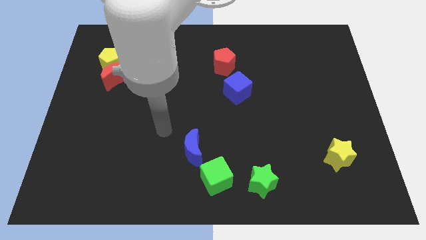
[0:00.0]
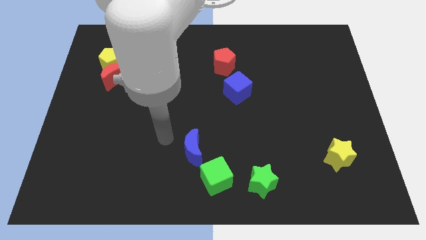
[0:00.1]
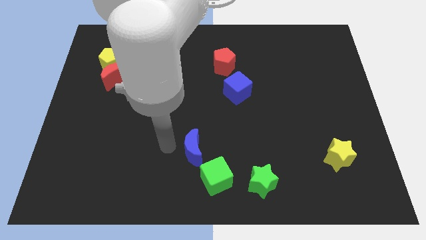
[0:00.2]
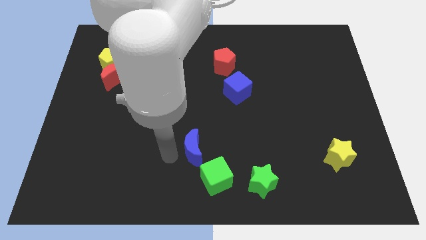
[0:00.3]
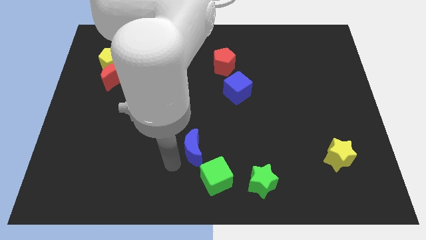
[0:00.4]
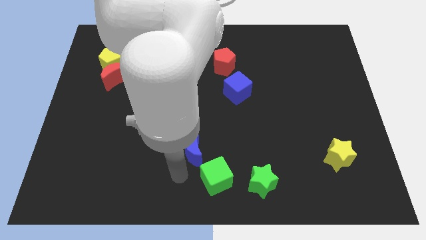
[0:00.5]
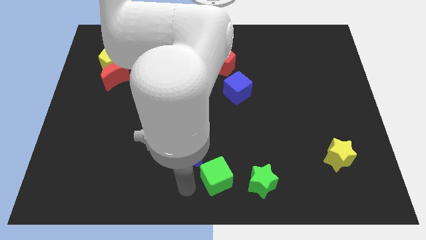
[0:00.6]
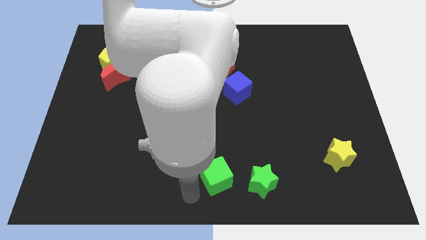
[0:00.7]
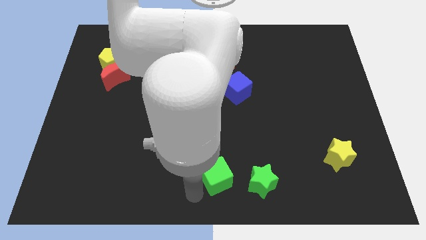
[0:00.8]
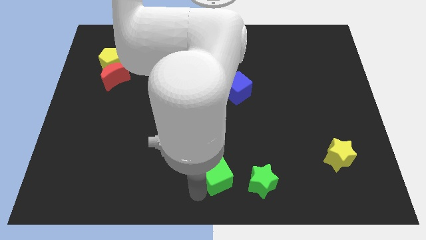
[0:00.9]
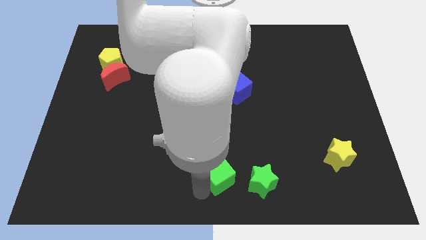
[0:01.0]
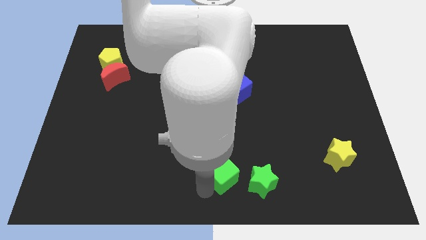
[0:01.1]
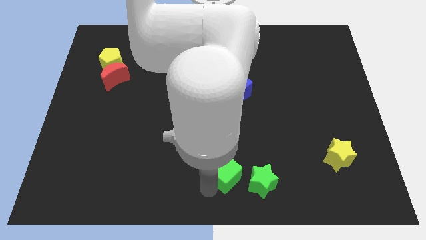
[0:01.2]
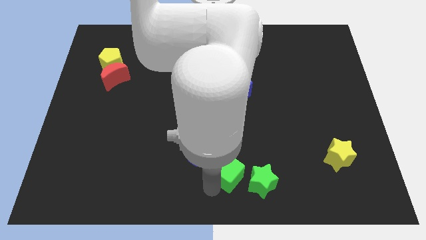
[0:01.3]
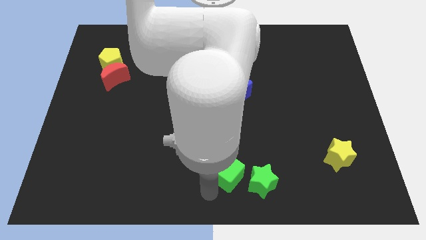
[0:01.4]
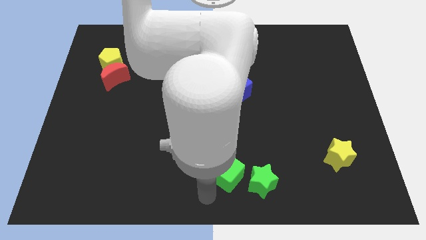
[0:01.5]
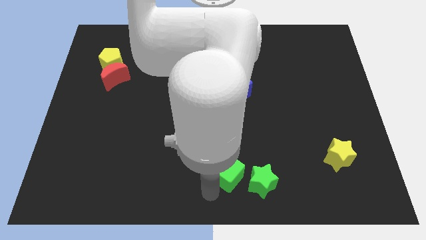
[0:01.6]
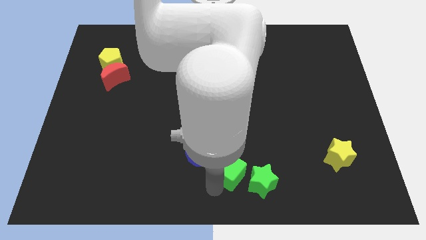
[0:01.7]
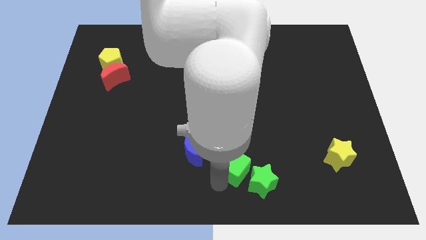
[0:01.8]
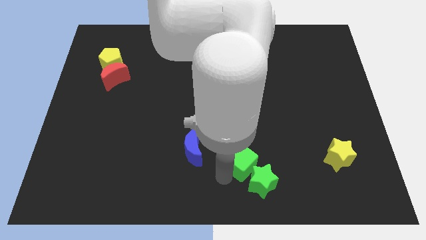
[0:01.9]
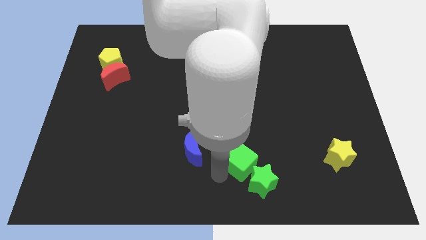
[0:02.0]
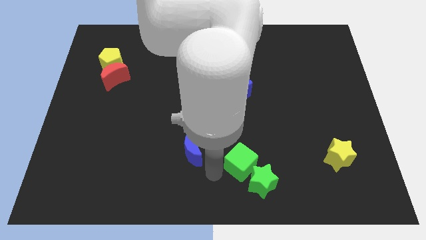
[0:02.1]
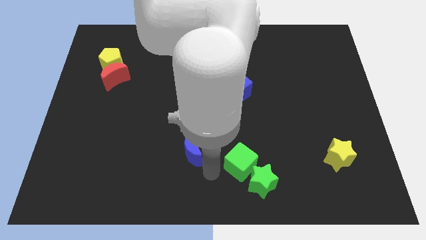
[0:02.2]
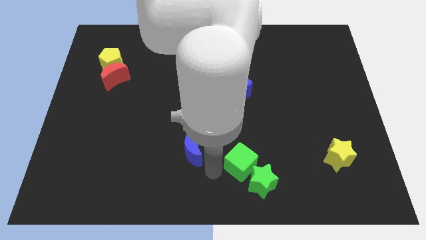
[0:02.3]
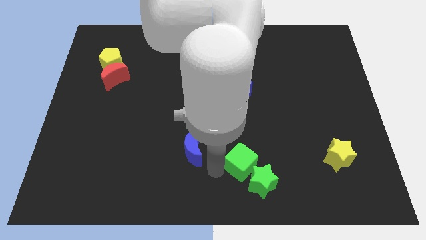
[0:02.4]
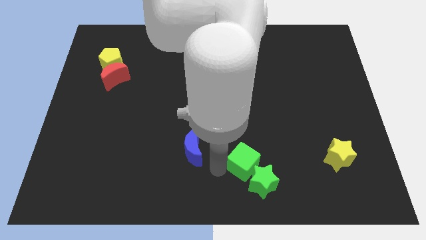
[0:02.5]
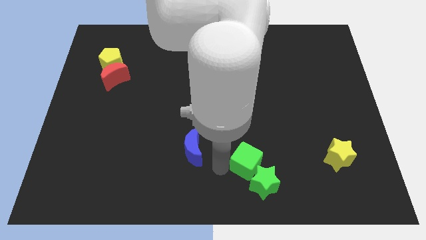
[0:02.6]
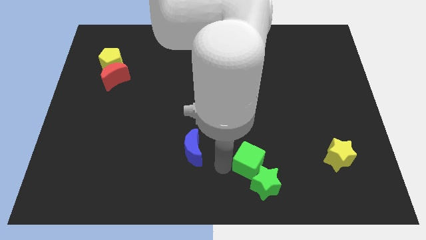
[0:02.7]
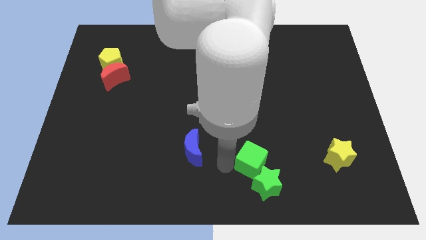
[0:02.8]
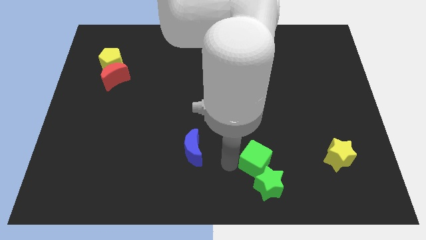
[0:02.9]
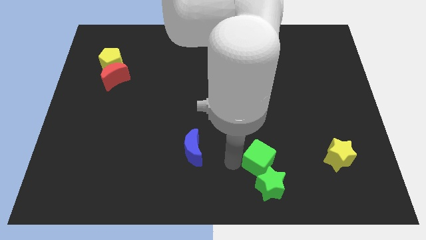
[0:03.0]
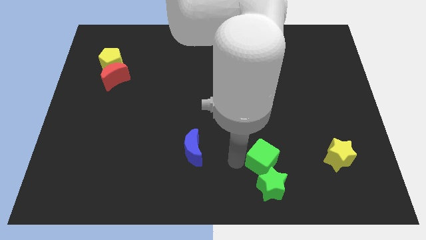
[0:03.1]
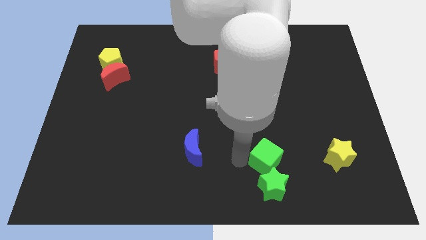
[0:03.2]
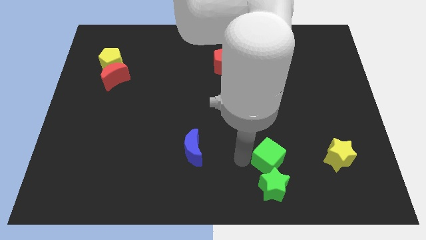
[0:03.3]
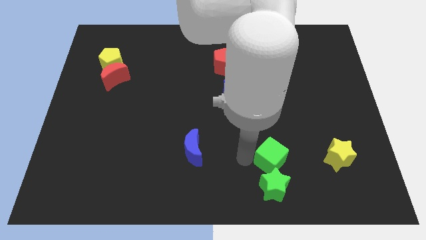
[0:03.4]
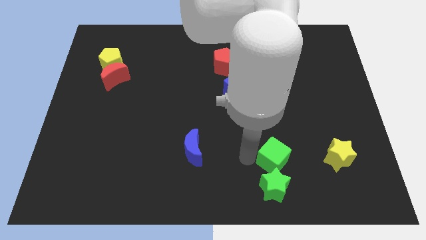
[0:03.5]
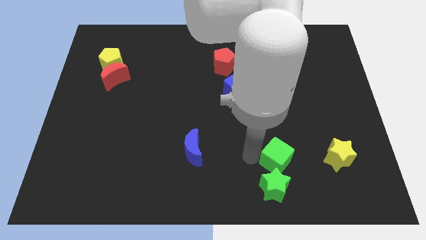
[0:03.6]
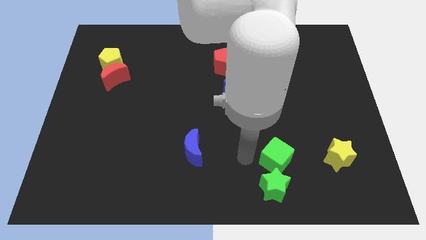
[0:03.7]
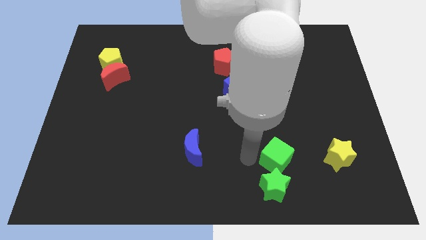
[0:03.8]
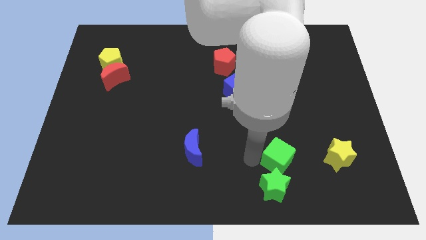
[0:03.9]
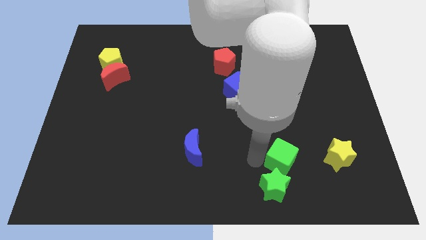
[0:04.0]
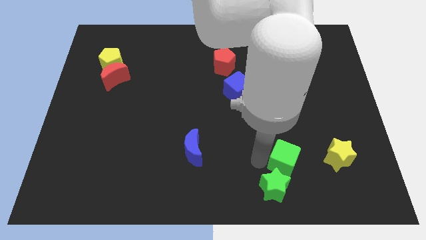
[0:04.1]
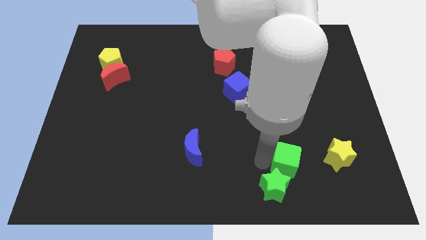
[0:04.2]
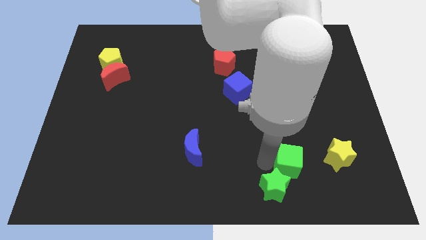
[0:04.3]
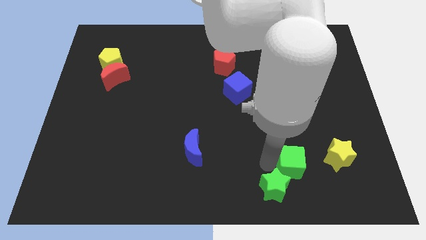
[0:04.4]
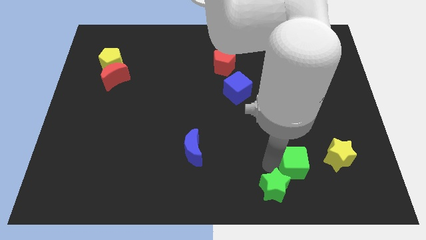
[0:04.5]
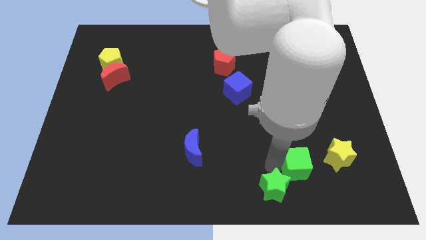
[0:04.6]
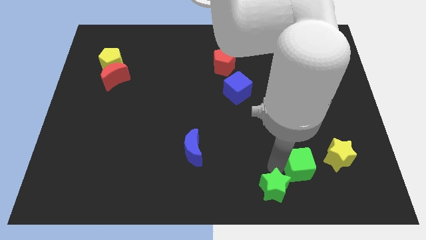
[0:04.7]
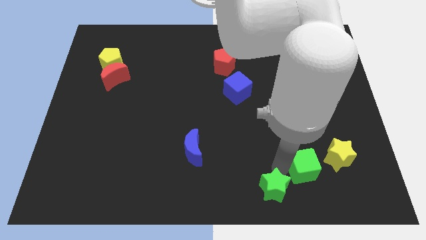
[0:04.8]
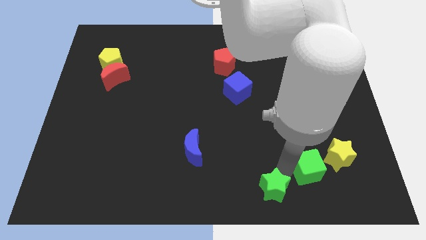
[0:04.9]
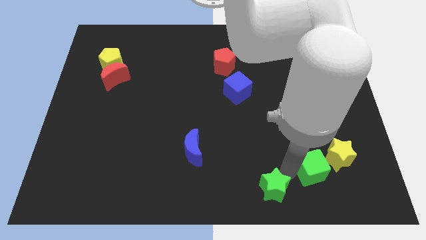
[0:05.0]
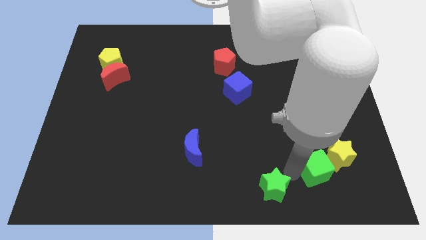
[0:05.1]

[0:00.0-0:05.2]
push the green cube close to the yellow star

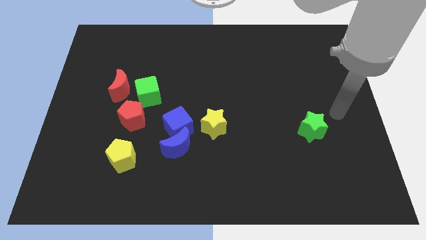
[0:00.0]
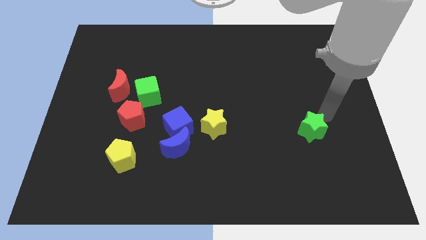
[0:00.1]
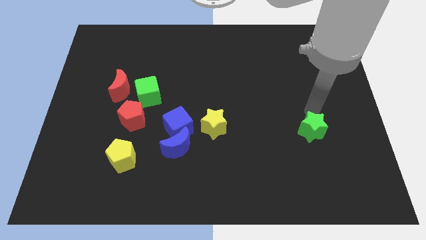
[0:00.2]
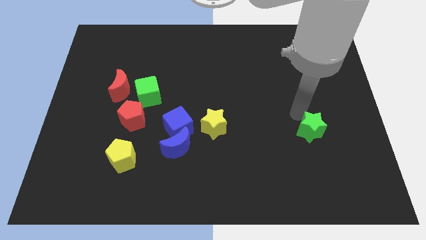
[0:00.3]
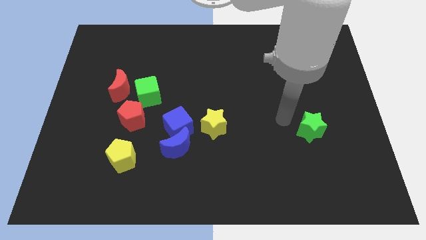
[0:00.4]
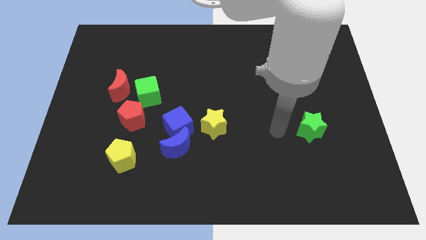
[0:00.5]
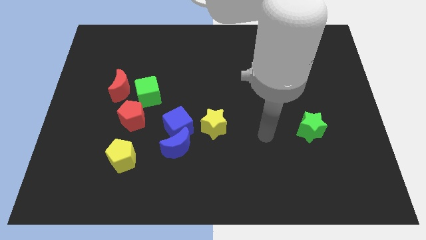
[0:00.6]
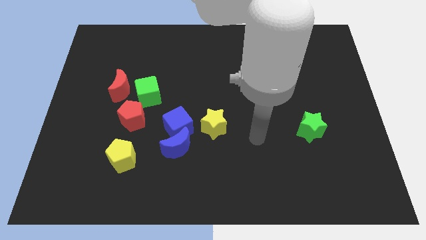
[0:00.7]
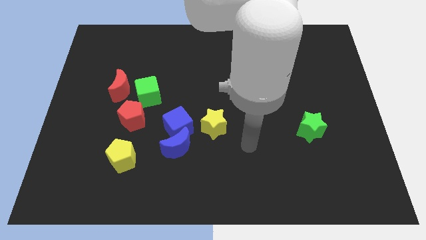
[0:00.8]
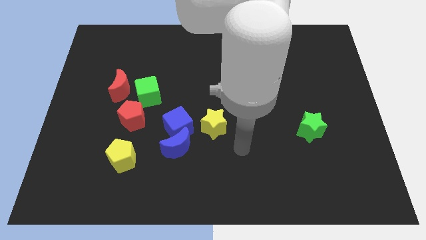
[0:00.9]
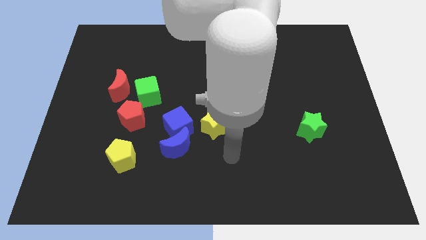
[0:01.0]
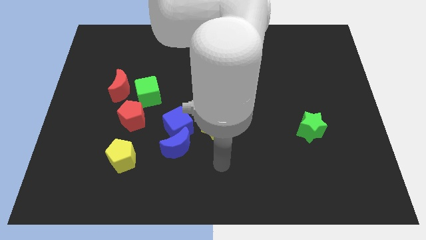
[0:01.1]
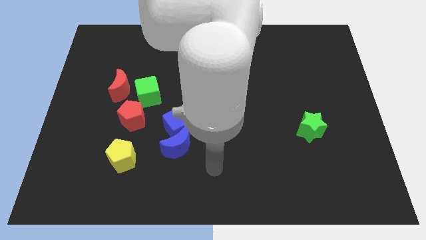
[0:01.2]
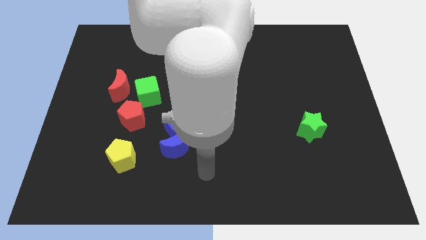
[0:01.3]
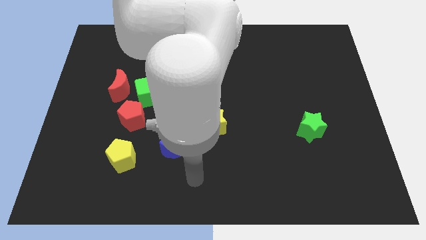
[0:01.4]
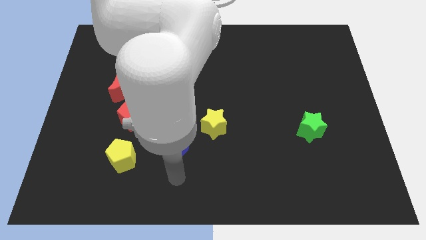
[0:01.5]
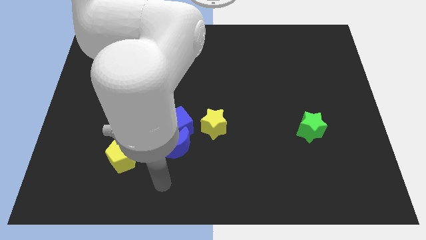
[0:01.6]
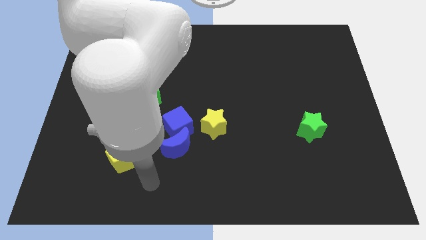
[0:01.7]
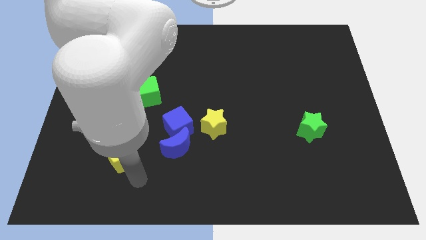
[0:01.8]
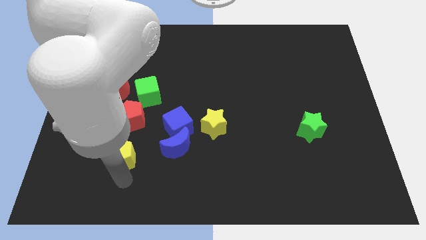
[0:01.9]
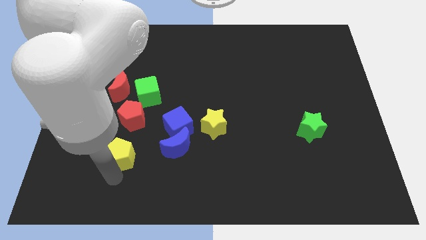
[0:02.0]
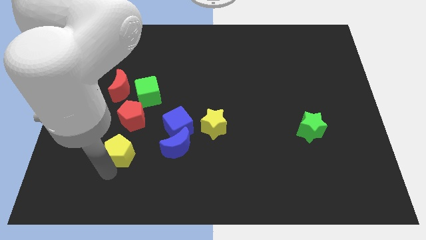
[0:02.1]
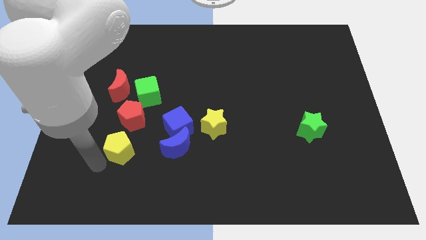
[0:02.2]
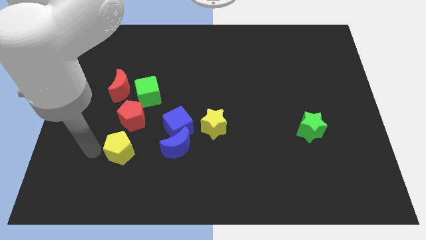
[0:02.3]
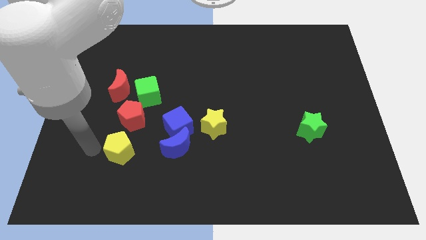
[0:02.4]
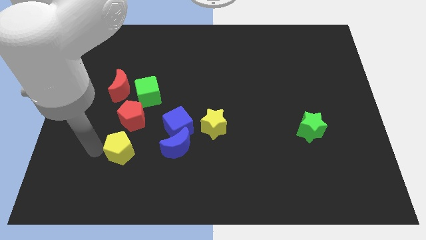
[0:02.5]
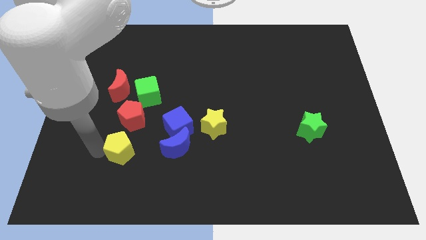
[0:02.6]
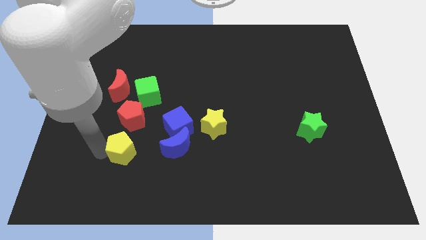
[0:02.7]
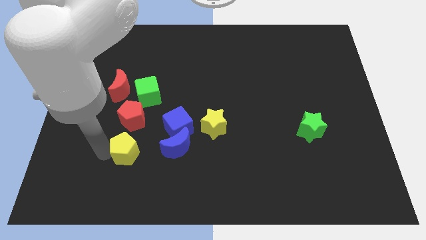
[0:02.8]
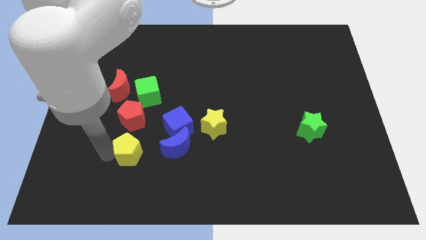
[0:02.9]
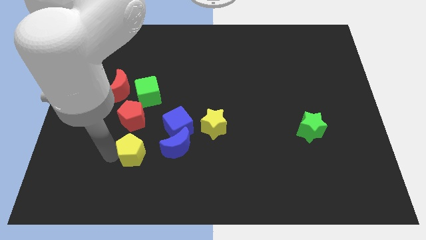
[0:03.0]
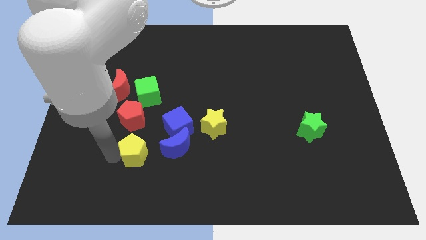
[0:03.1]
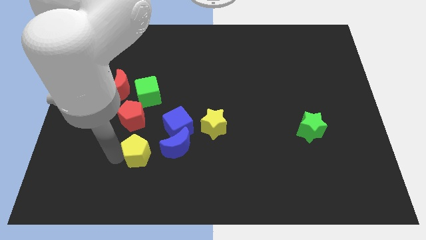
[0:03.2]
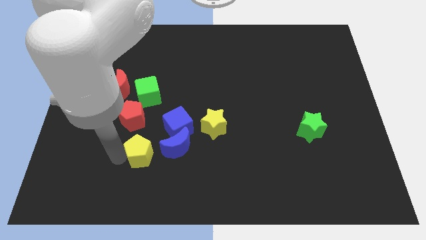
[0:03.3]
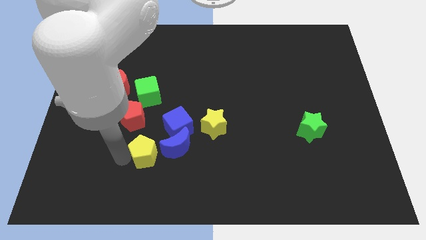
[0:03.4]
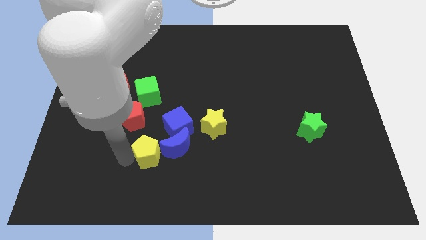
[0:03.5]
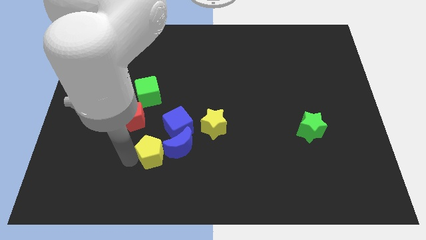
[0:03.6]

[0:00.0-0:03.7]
move the yellow pentagon to the blue moon
